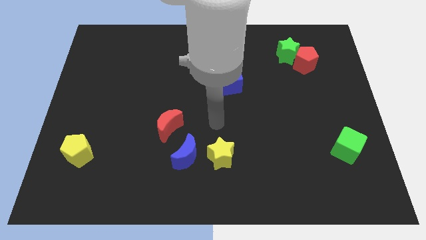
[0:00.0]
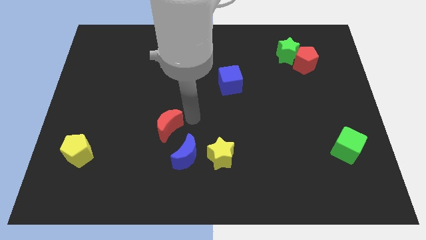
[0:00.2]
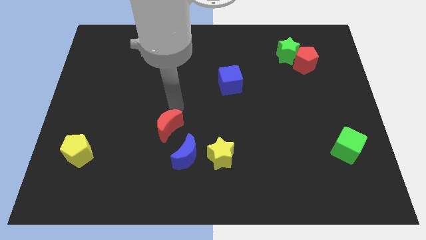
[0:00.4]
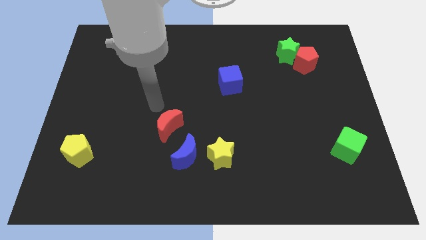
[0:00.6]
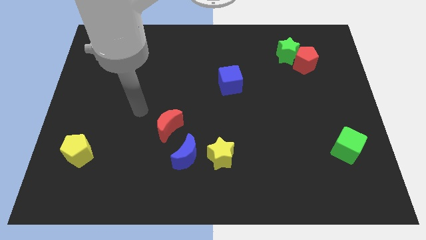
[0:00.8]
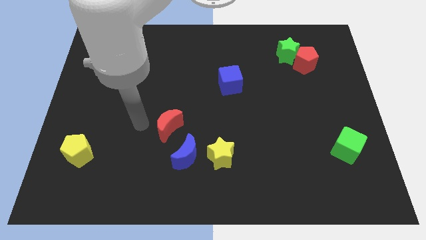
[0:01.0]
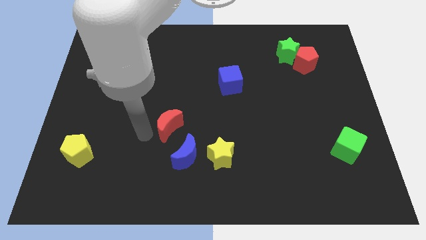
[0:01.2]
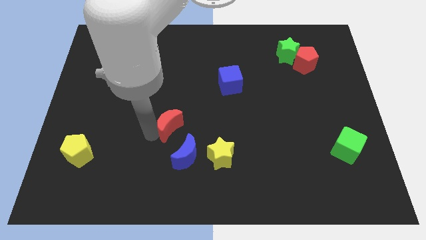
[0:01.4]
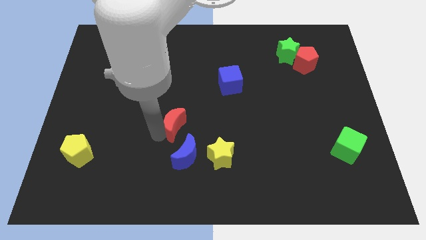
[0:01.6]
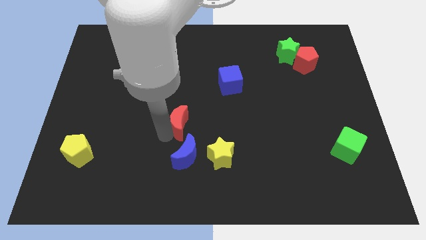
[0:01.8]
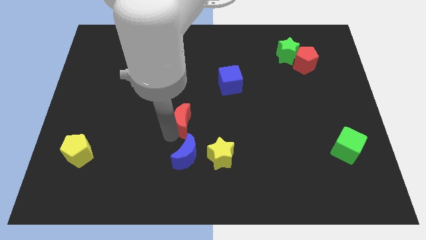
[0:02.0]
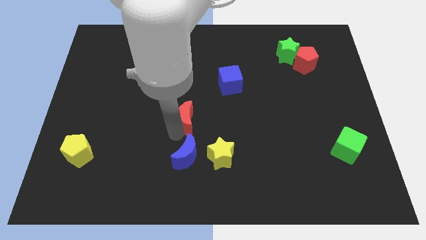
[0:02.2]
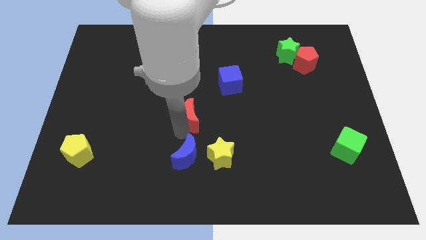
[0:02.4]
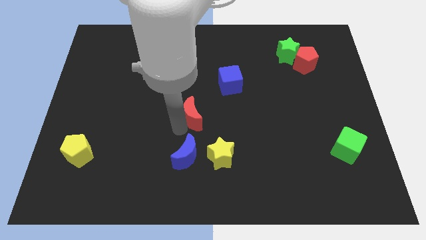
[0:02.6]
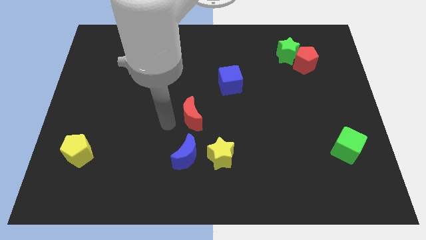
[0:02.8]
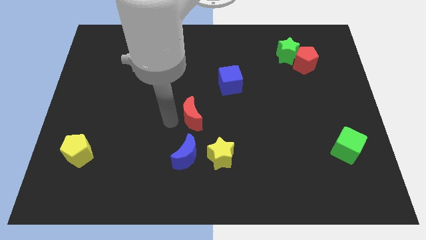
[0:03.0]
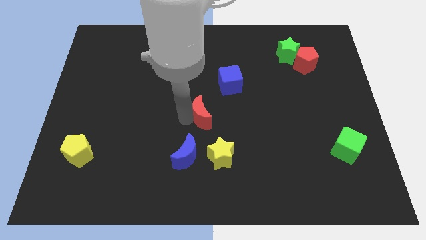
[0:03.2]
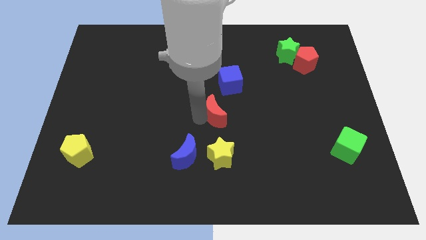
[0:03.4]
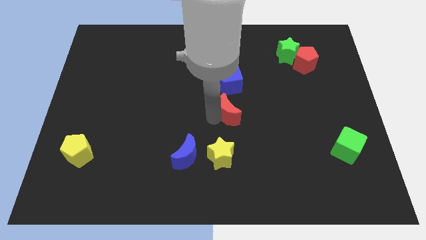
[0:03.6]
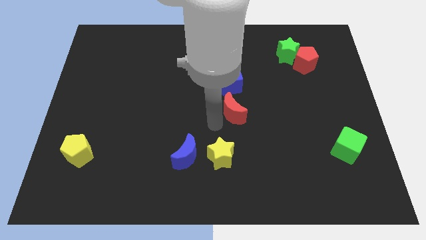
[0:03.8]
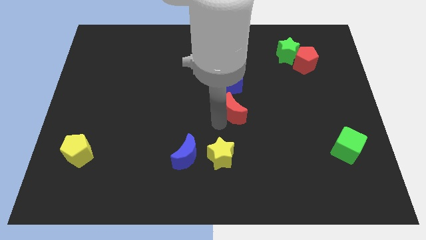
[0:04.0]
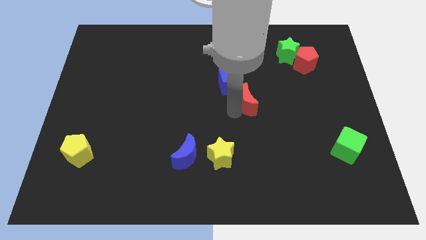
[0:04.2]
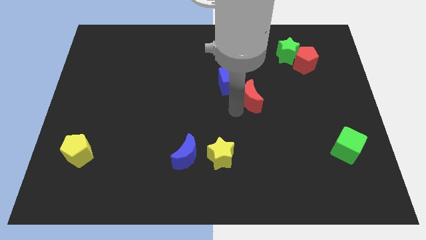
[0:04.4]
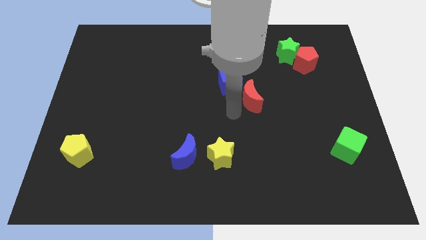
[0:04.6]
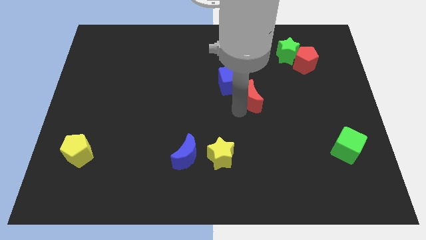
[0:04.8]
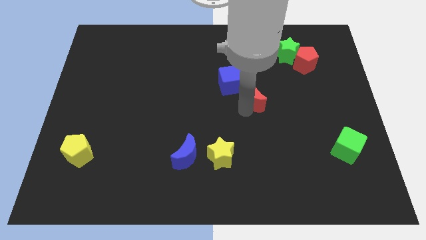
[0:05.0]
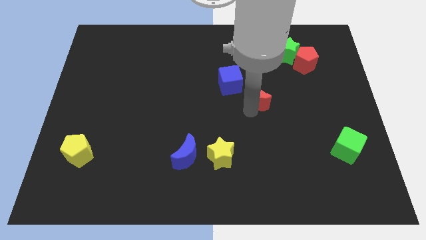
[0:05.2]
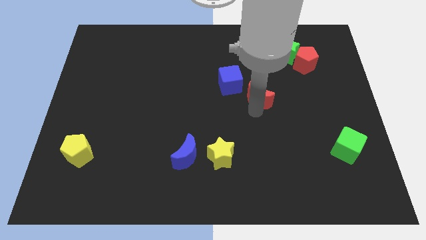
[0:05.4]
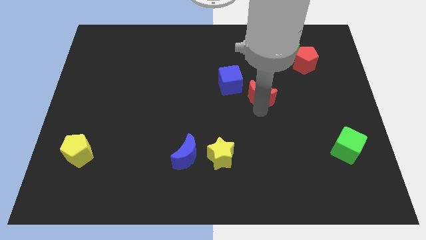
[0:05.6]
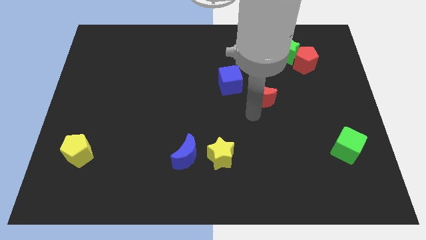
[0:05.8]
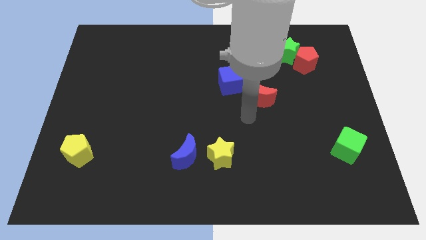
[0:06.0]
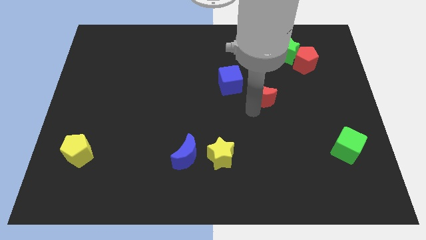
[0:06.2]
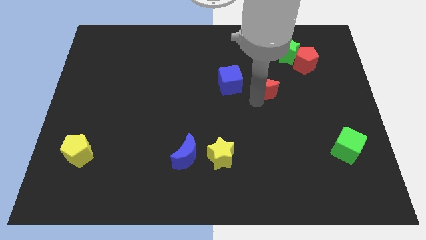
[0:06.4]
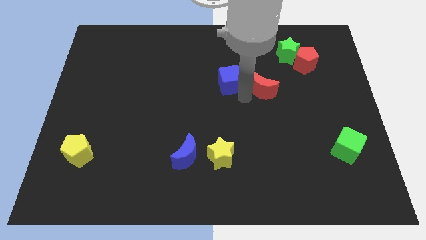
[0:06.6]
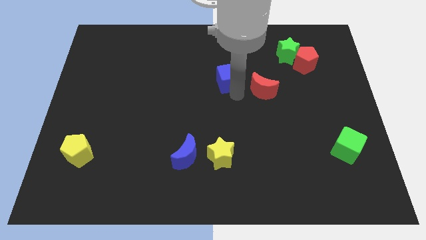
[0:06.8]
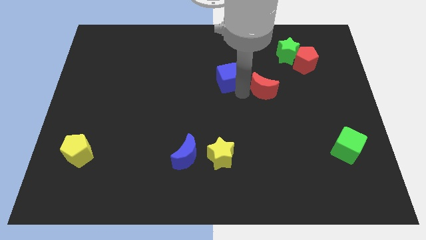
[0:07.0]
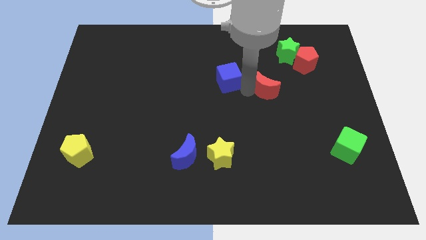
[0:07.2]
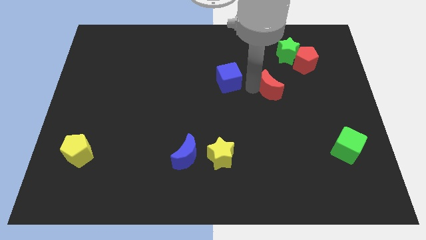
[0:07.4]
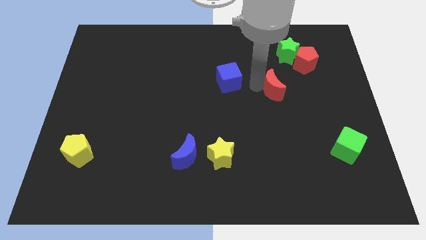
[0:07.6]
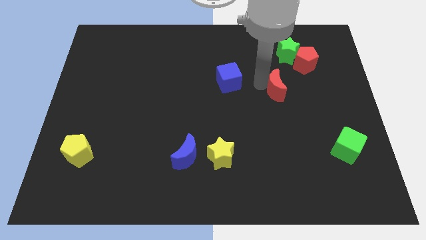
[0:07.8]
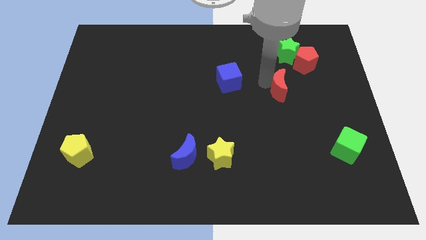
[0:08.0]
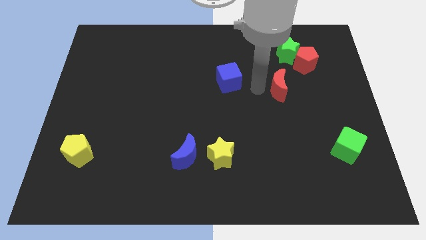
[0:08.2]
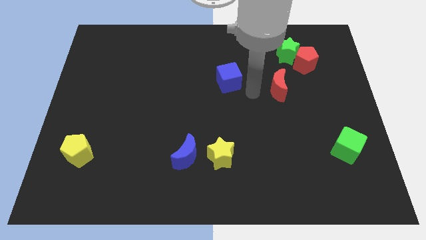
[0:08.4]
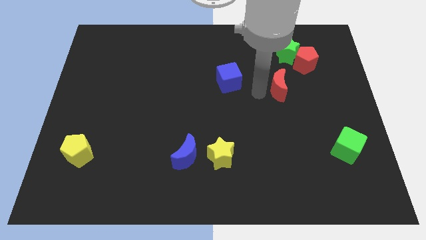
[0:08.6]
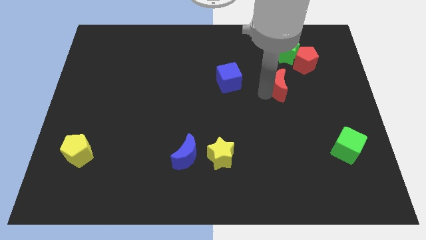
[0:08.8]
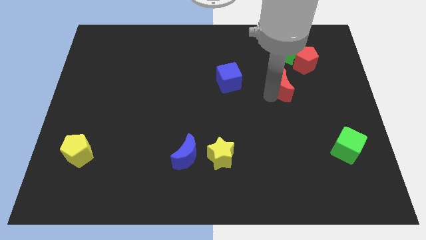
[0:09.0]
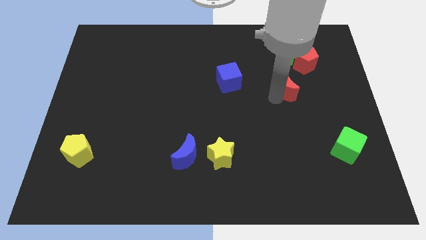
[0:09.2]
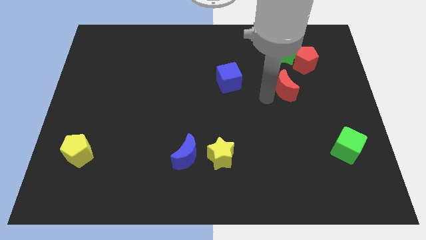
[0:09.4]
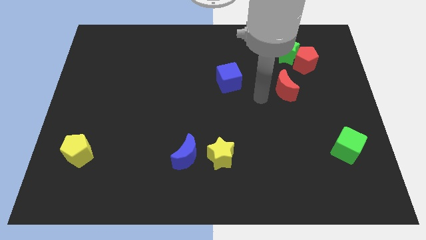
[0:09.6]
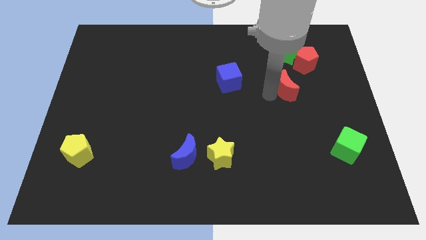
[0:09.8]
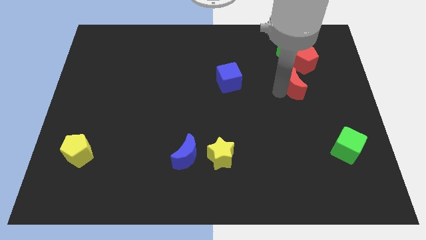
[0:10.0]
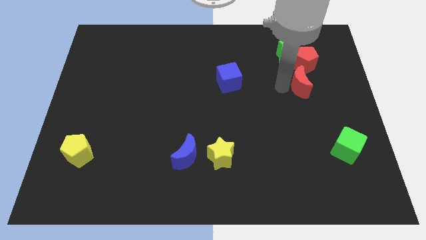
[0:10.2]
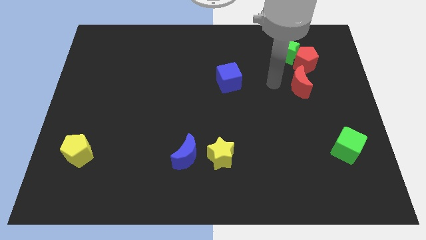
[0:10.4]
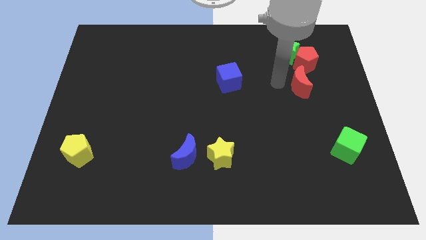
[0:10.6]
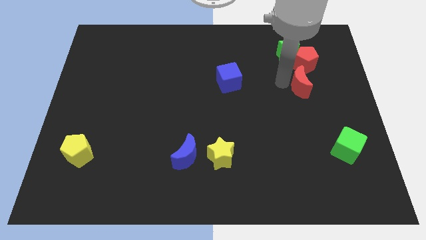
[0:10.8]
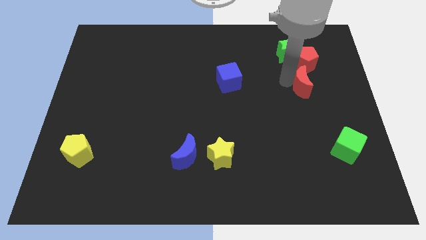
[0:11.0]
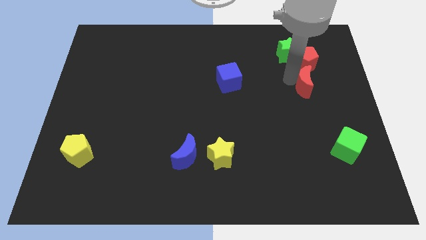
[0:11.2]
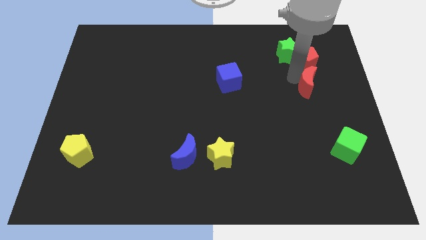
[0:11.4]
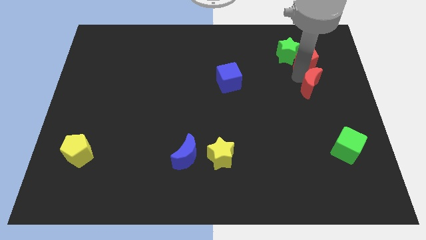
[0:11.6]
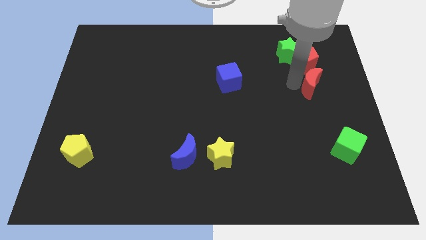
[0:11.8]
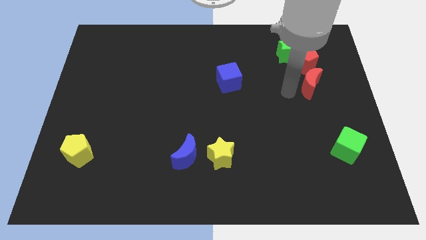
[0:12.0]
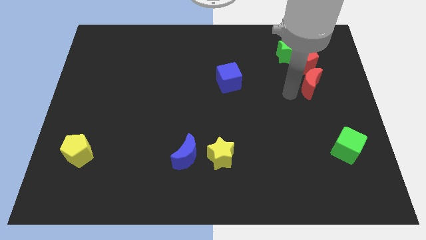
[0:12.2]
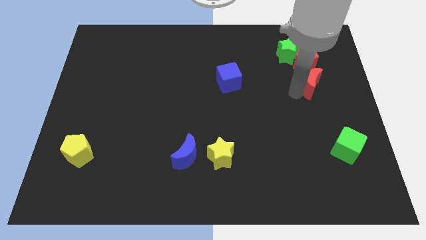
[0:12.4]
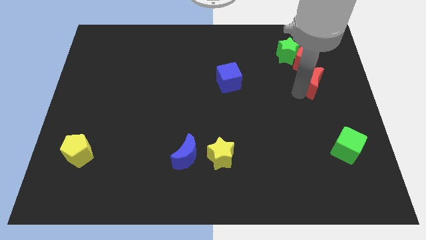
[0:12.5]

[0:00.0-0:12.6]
push the red moon to the bottom right of the red pentagon

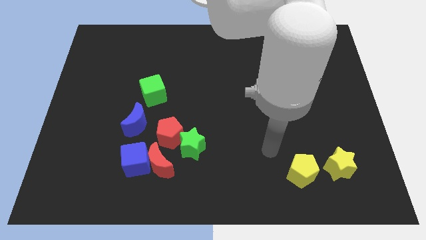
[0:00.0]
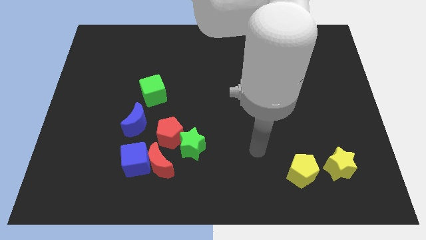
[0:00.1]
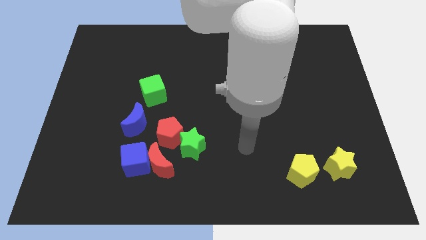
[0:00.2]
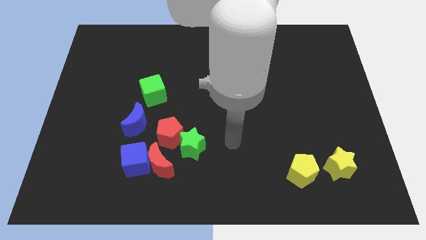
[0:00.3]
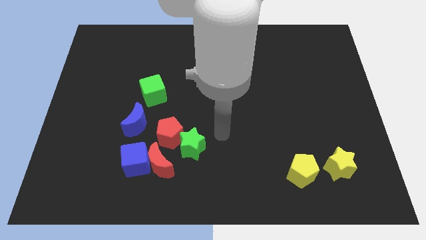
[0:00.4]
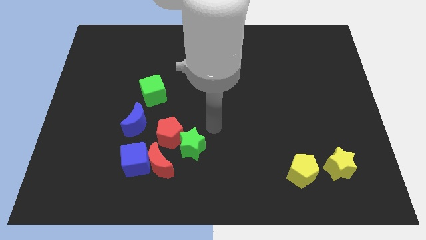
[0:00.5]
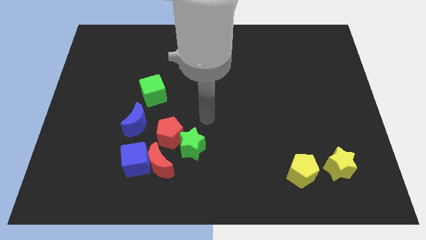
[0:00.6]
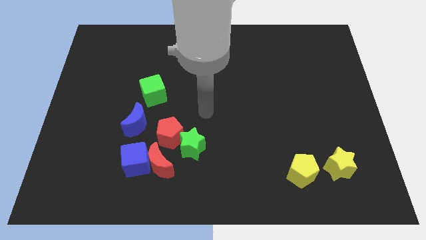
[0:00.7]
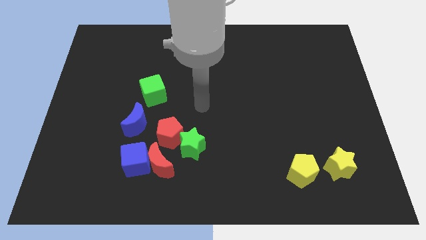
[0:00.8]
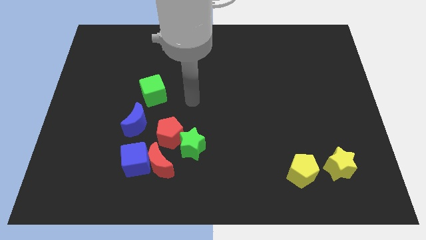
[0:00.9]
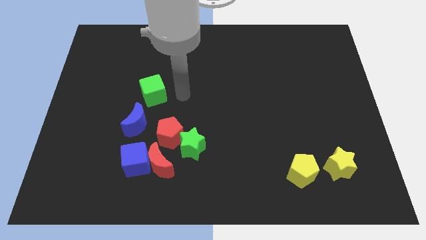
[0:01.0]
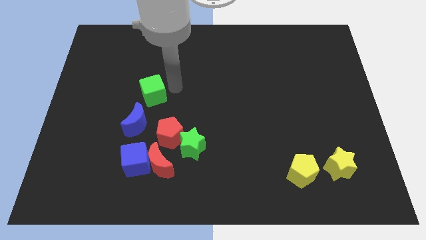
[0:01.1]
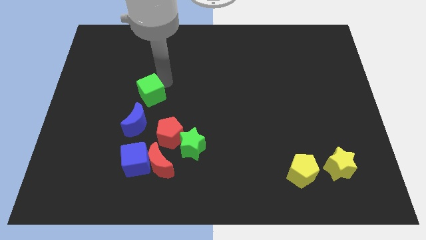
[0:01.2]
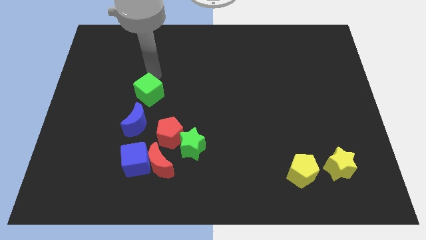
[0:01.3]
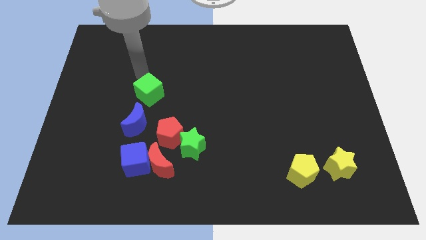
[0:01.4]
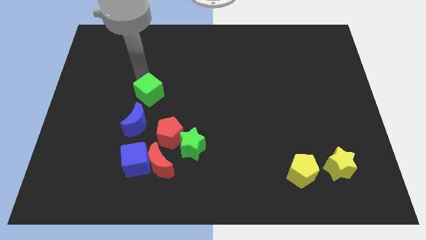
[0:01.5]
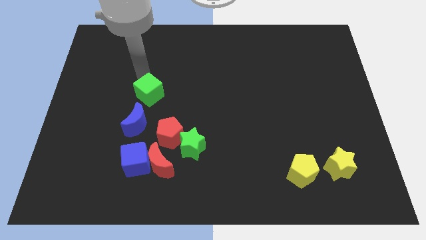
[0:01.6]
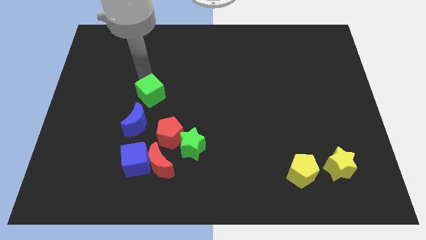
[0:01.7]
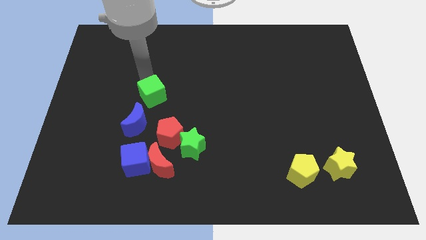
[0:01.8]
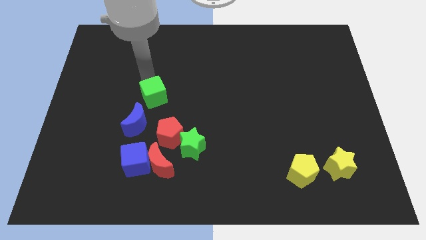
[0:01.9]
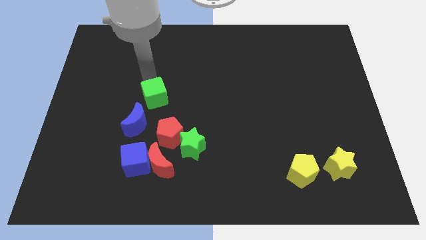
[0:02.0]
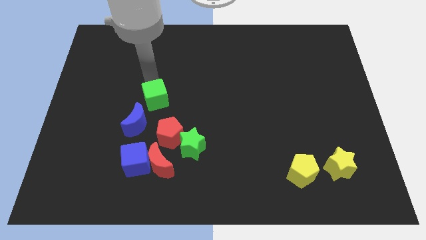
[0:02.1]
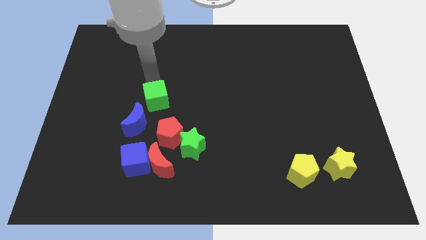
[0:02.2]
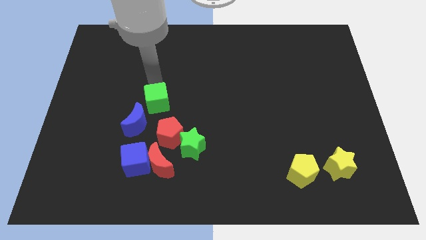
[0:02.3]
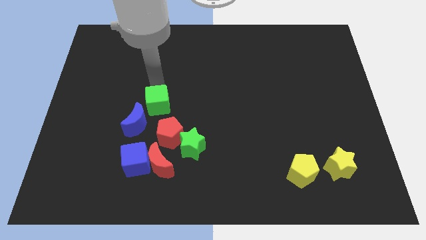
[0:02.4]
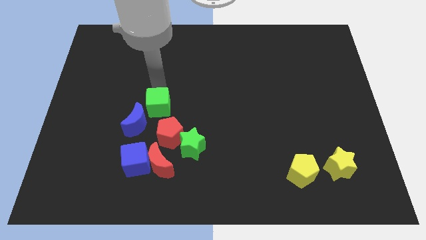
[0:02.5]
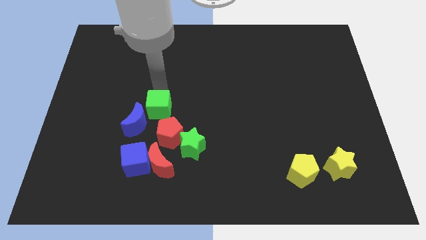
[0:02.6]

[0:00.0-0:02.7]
slide the green cube just right of the blue moon
